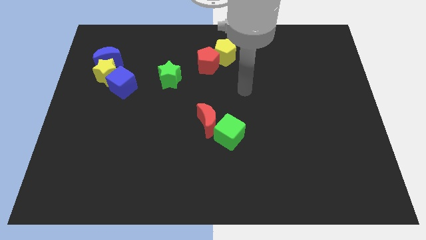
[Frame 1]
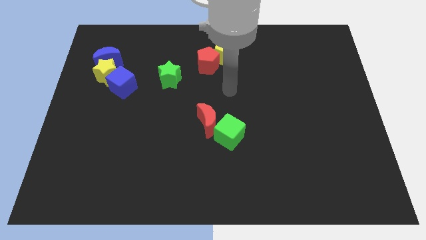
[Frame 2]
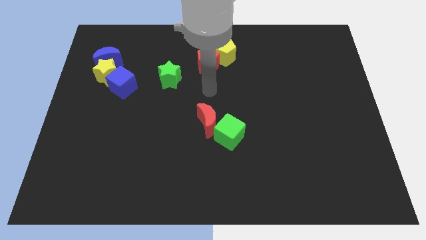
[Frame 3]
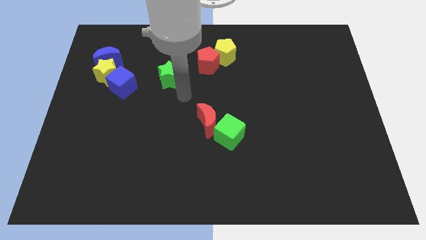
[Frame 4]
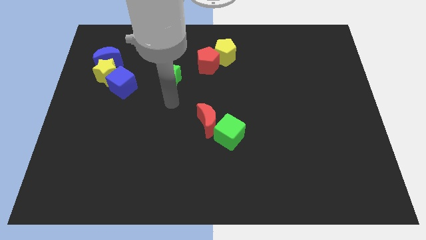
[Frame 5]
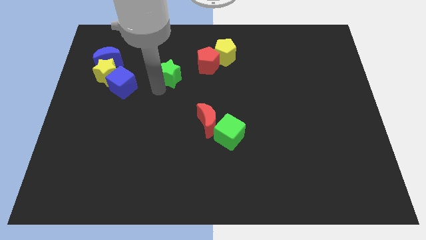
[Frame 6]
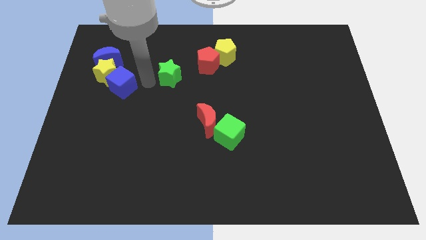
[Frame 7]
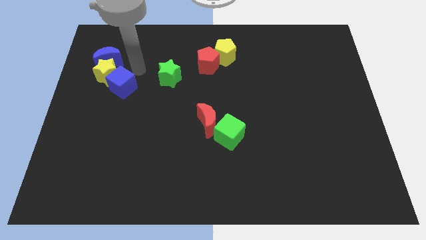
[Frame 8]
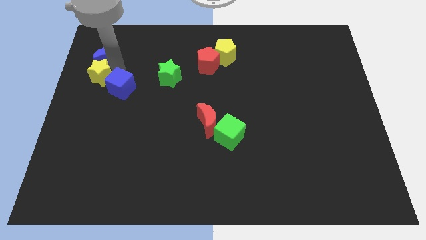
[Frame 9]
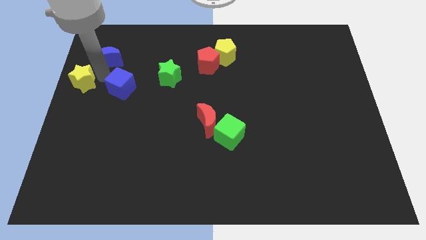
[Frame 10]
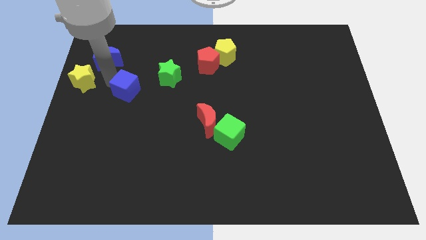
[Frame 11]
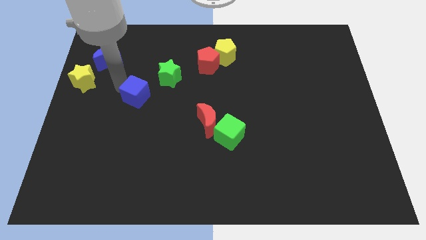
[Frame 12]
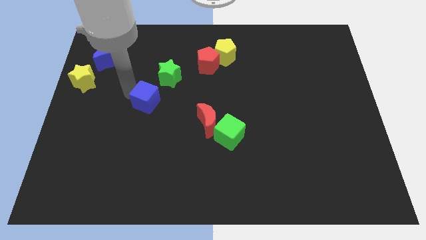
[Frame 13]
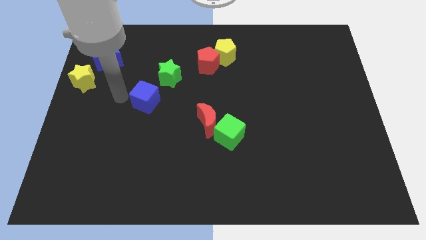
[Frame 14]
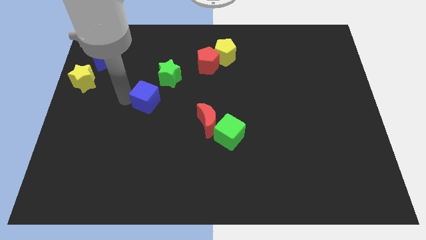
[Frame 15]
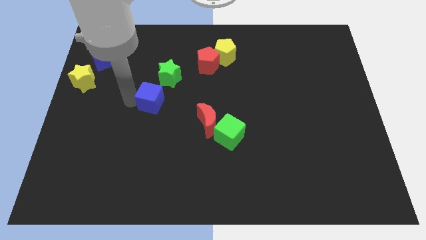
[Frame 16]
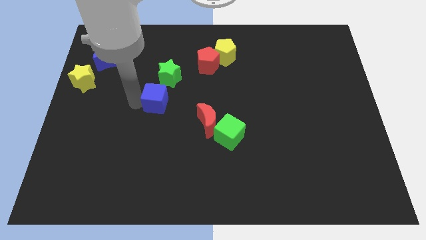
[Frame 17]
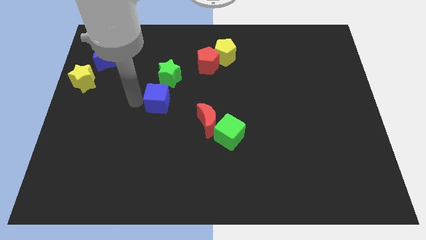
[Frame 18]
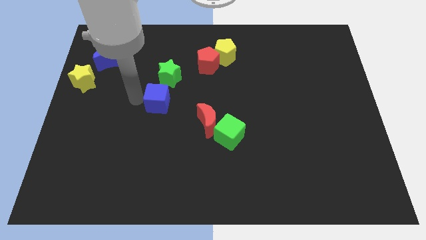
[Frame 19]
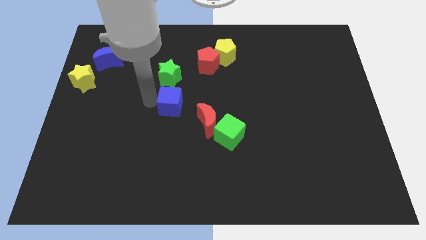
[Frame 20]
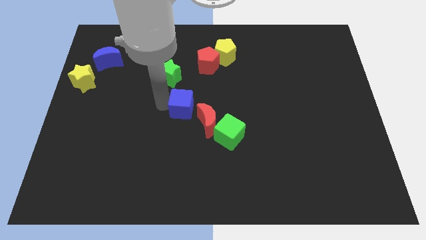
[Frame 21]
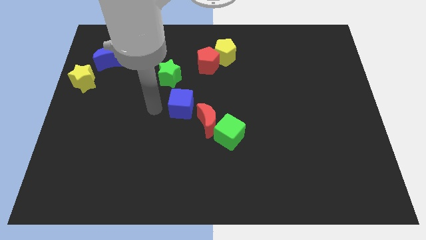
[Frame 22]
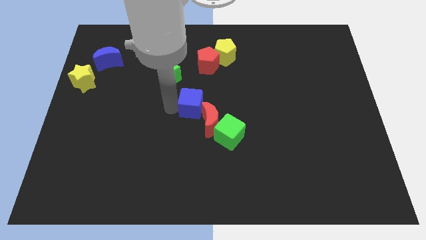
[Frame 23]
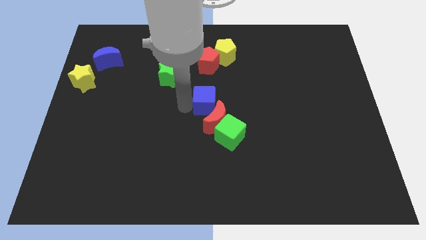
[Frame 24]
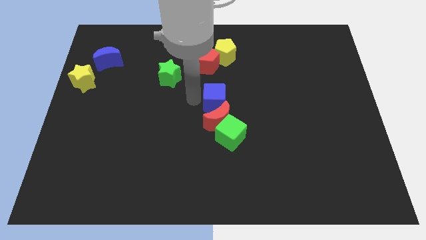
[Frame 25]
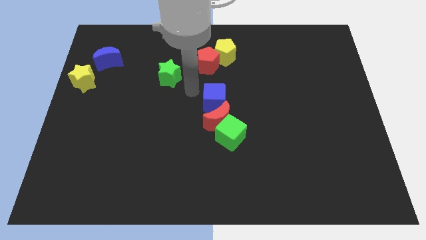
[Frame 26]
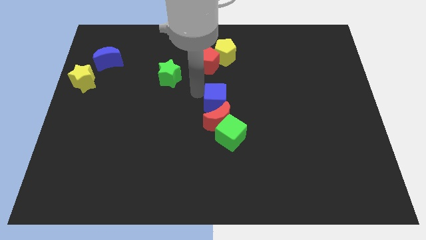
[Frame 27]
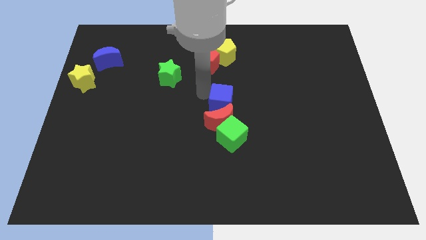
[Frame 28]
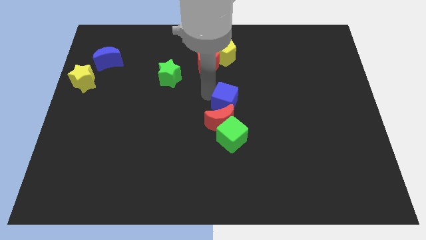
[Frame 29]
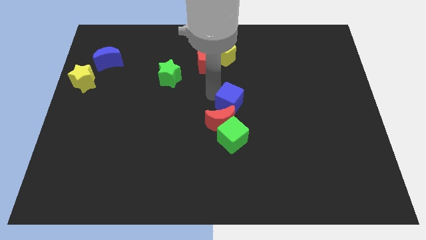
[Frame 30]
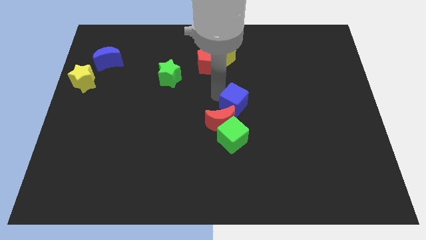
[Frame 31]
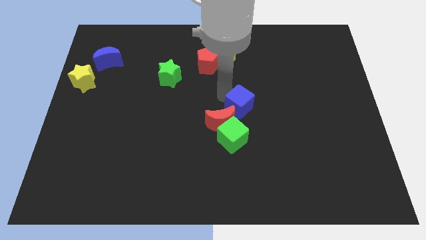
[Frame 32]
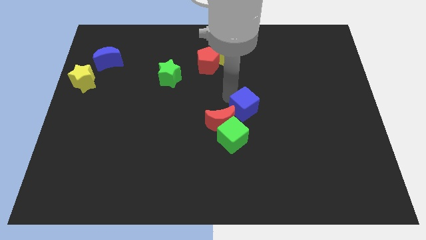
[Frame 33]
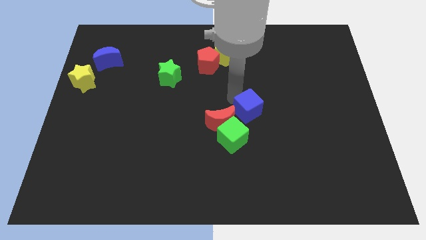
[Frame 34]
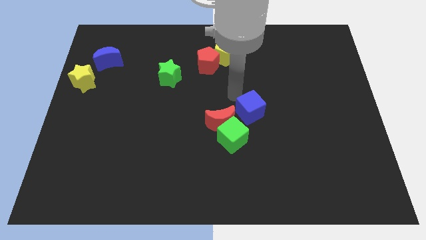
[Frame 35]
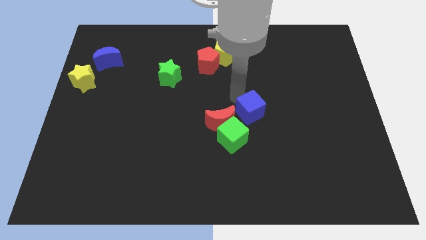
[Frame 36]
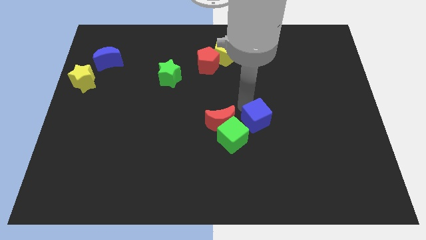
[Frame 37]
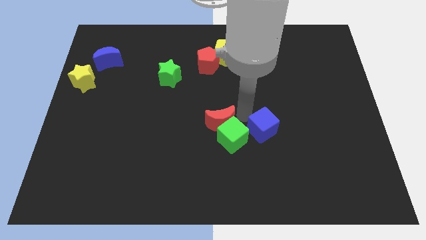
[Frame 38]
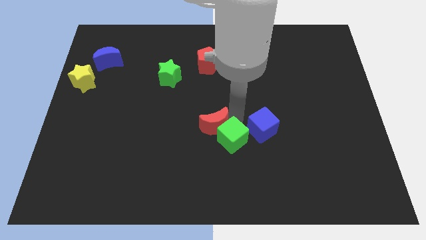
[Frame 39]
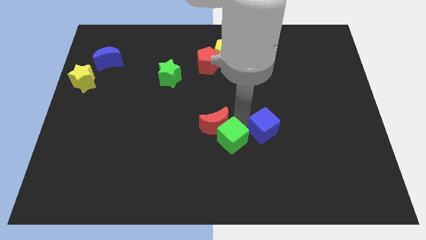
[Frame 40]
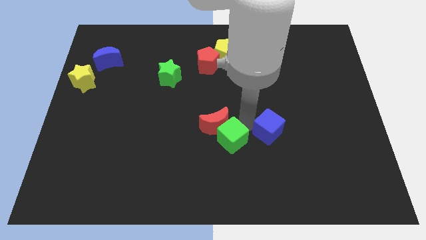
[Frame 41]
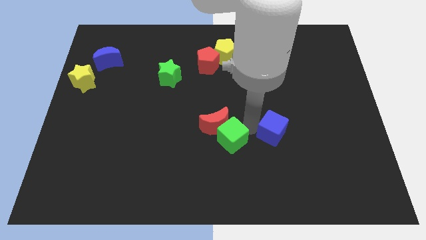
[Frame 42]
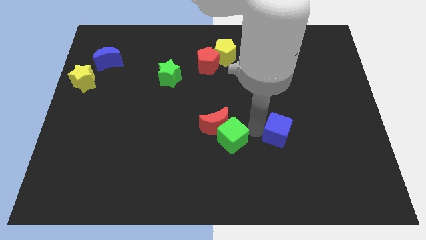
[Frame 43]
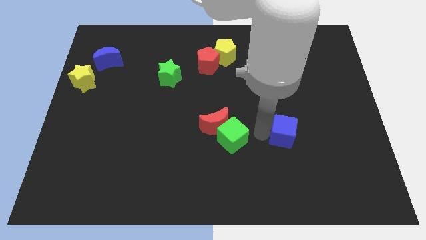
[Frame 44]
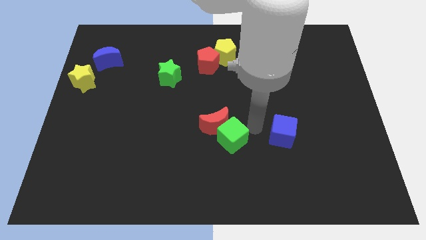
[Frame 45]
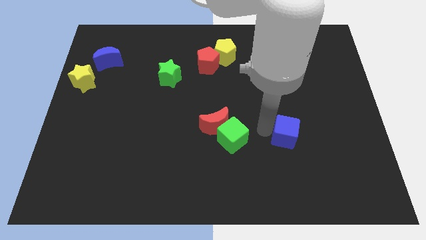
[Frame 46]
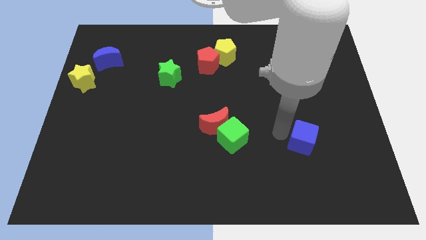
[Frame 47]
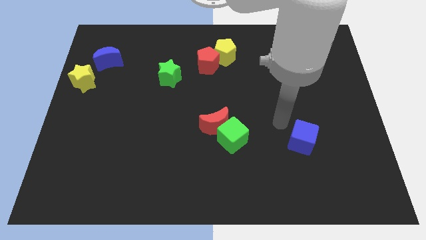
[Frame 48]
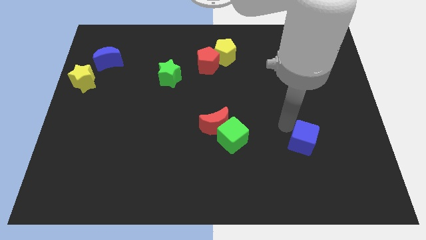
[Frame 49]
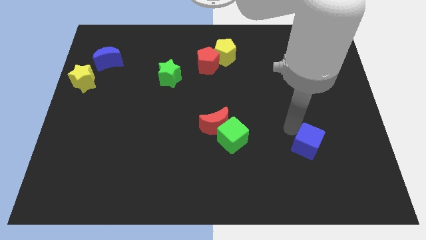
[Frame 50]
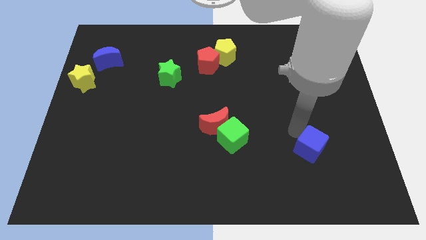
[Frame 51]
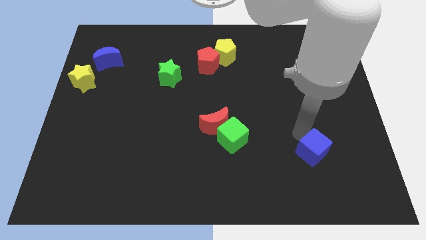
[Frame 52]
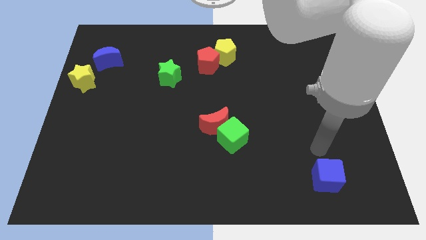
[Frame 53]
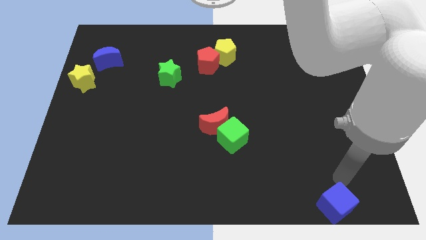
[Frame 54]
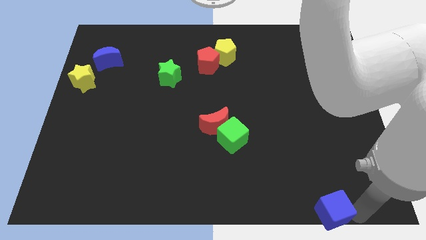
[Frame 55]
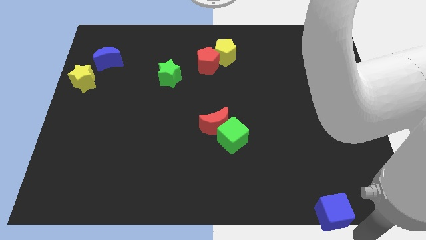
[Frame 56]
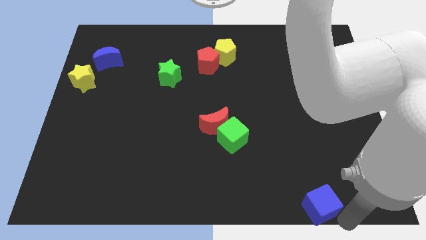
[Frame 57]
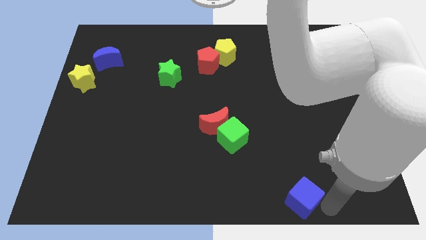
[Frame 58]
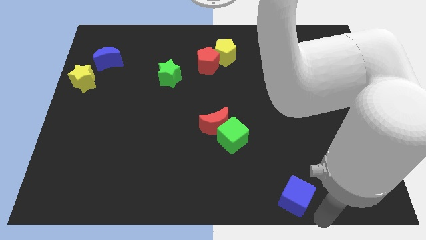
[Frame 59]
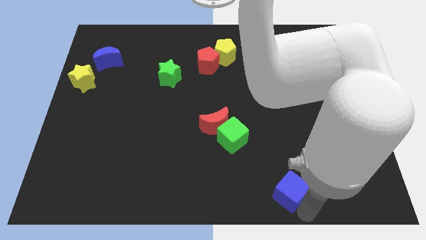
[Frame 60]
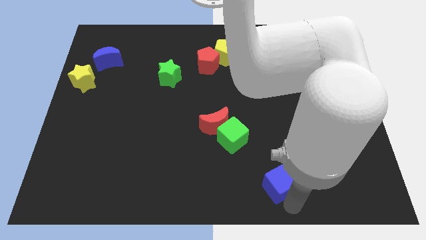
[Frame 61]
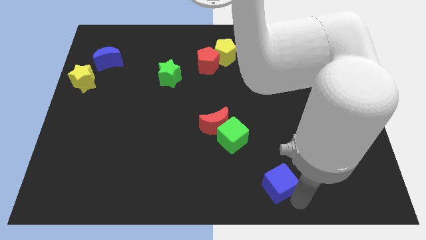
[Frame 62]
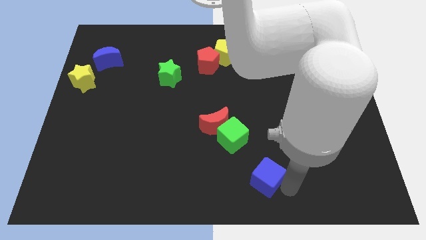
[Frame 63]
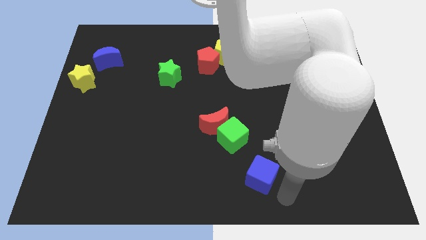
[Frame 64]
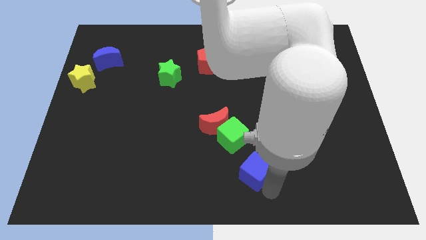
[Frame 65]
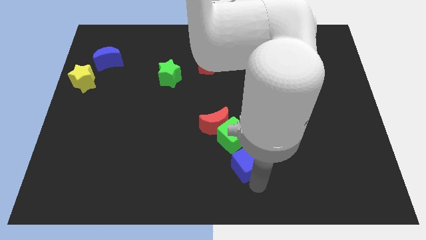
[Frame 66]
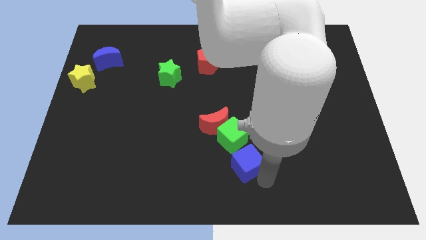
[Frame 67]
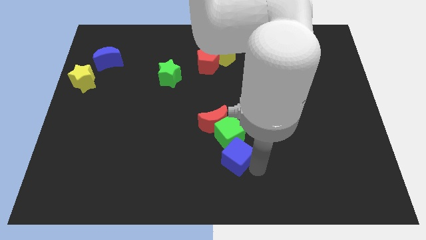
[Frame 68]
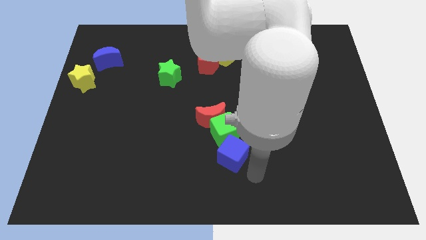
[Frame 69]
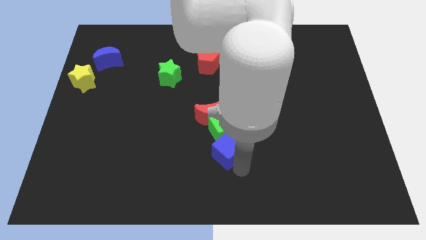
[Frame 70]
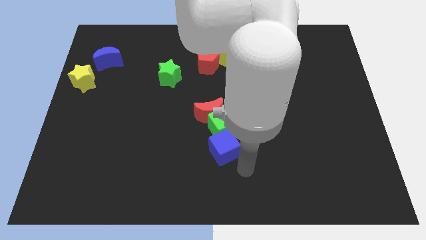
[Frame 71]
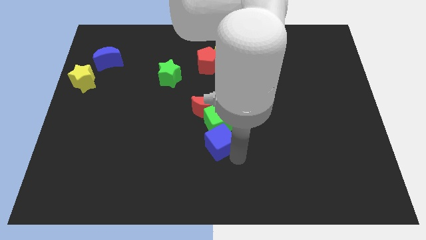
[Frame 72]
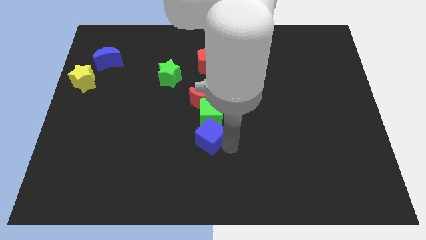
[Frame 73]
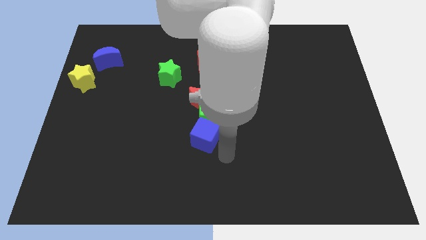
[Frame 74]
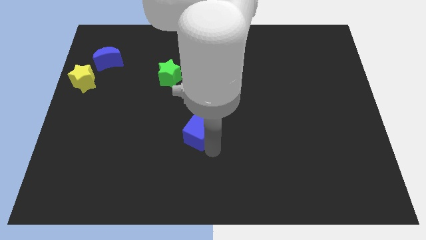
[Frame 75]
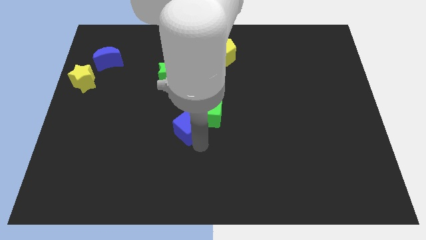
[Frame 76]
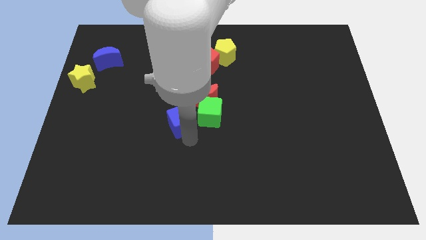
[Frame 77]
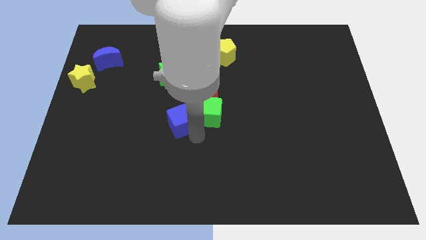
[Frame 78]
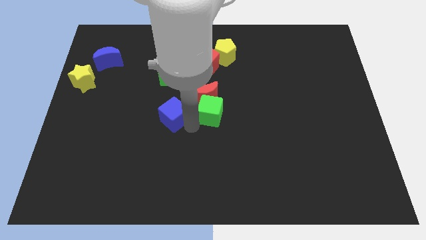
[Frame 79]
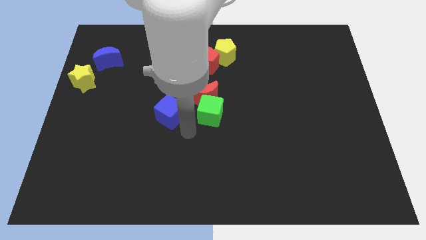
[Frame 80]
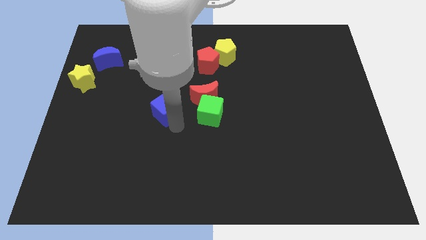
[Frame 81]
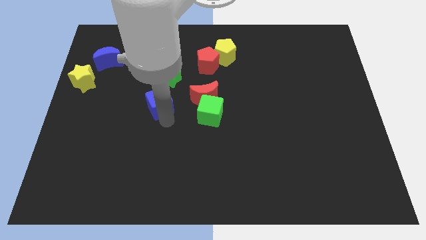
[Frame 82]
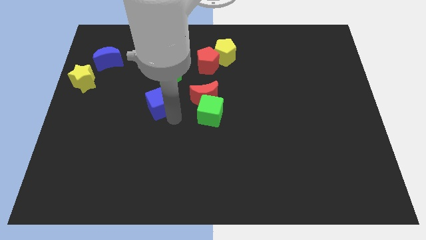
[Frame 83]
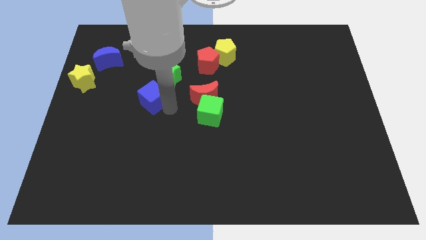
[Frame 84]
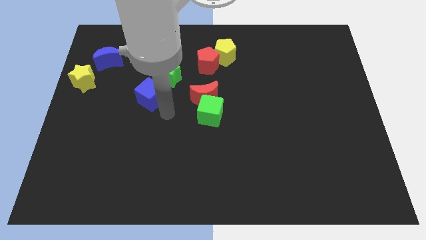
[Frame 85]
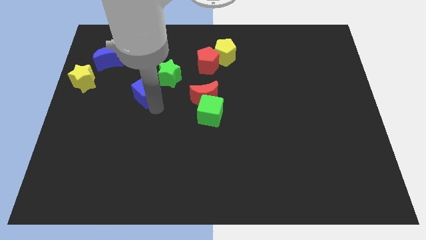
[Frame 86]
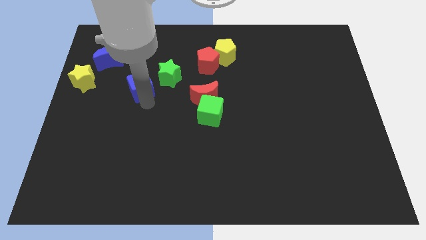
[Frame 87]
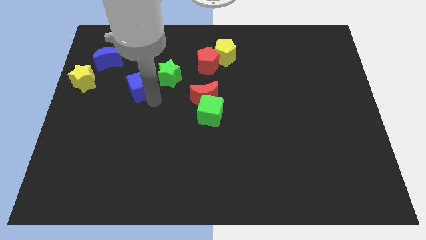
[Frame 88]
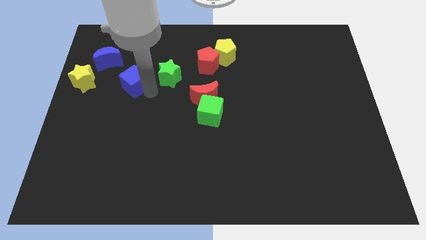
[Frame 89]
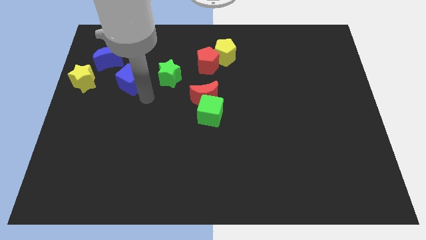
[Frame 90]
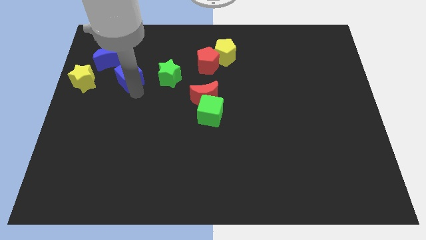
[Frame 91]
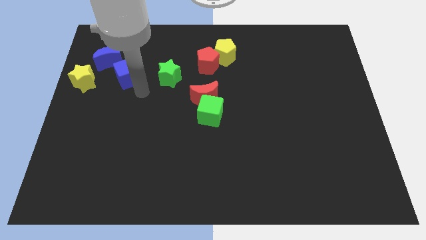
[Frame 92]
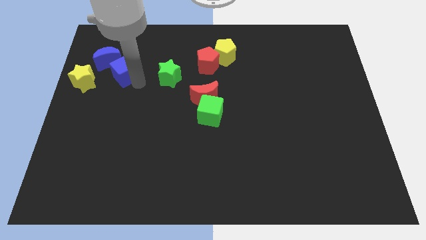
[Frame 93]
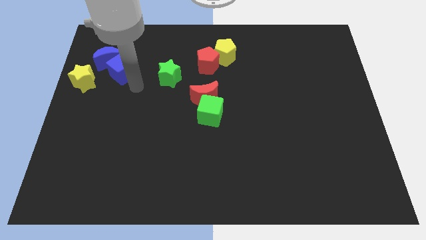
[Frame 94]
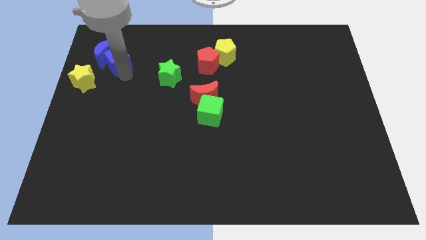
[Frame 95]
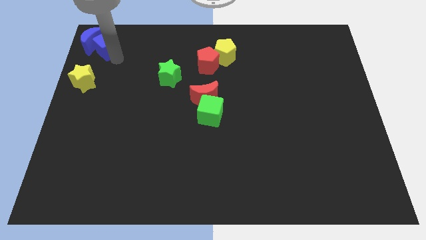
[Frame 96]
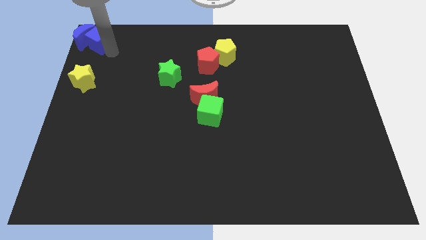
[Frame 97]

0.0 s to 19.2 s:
put the blue cube to the top left corner
